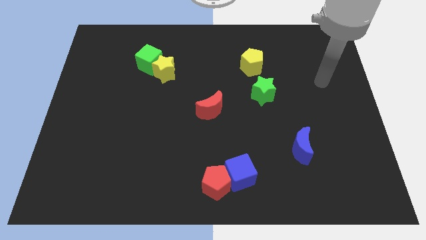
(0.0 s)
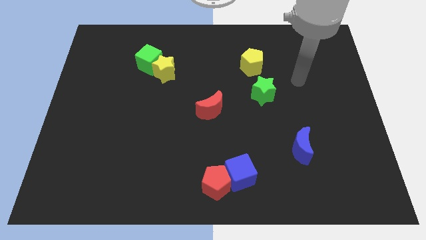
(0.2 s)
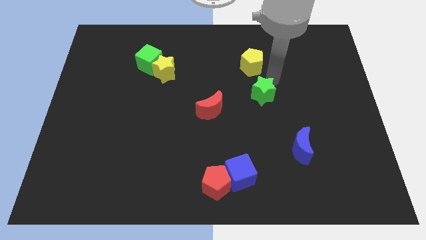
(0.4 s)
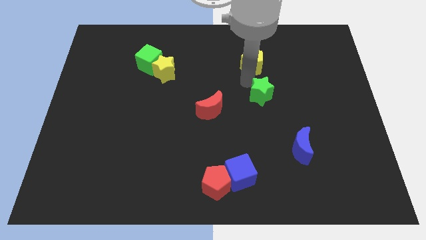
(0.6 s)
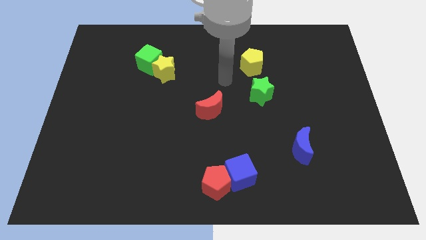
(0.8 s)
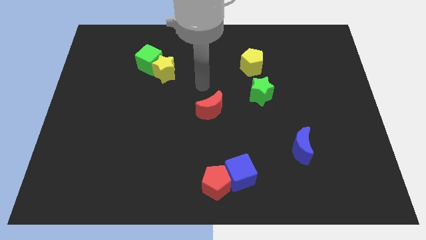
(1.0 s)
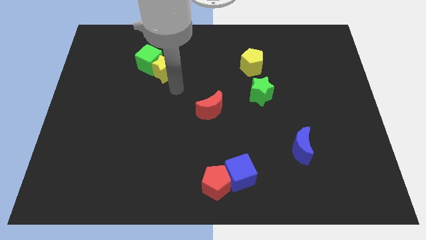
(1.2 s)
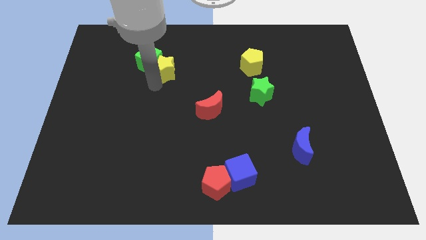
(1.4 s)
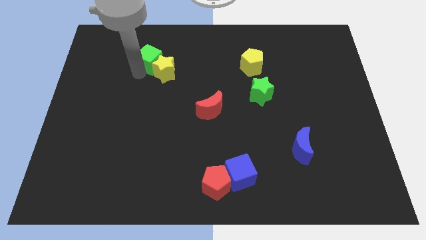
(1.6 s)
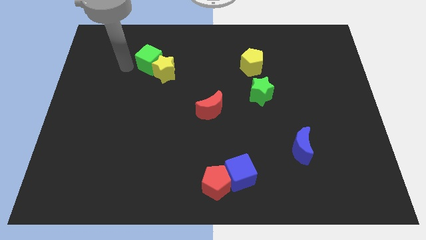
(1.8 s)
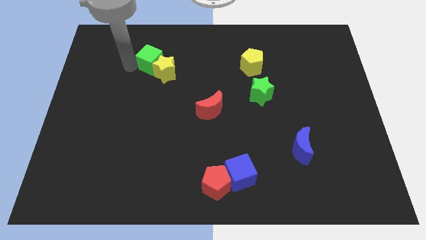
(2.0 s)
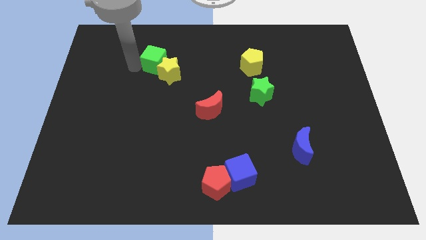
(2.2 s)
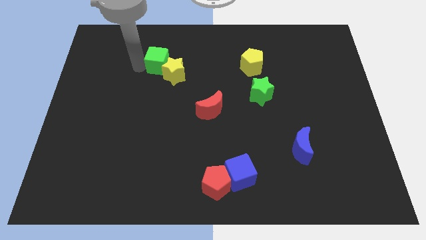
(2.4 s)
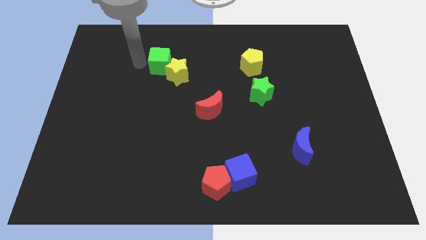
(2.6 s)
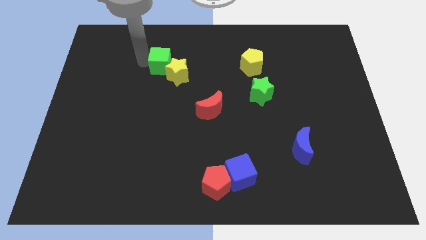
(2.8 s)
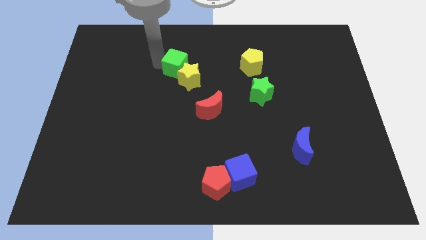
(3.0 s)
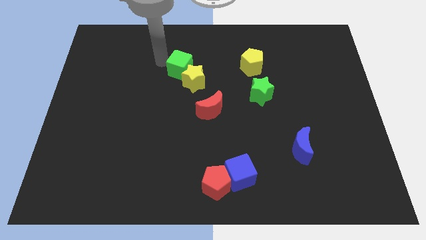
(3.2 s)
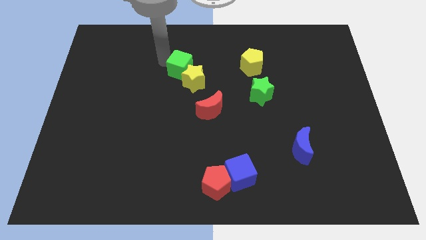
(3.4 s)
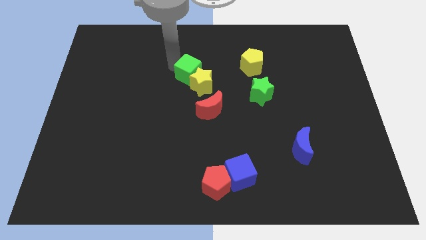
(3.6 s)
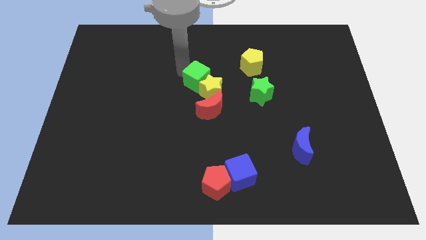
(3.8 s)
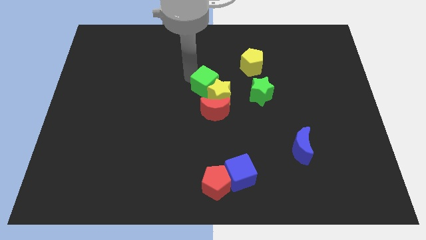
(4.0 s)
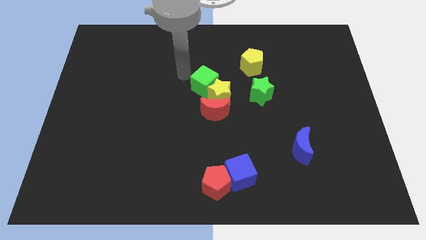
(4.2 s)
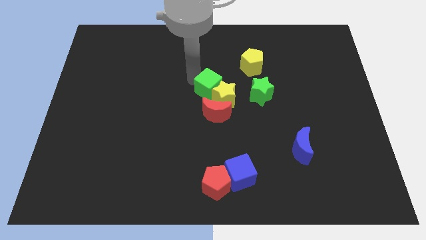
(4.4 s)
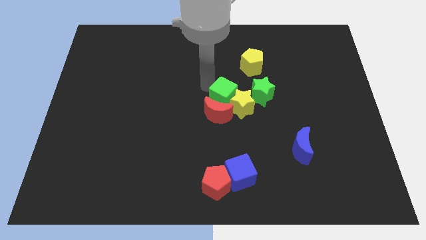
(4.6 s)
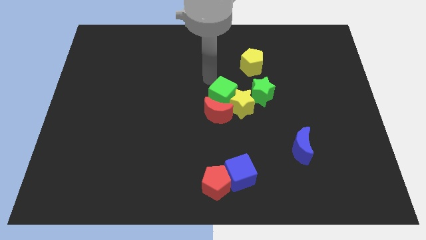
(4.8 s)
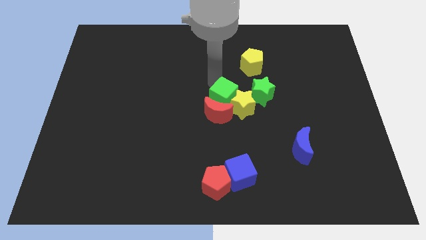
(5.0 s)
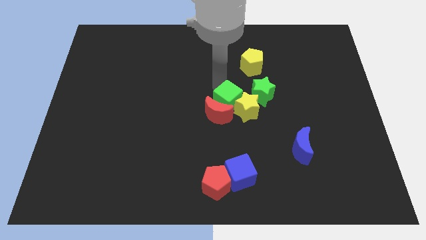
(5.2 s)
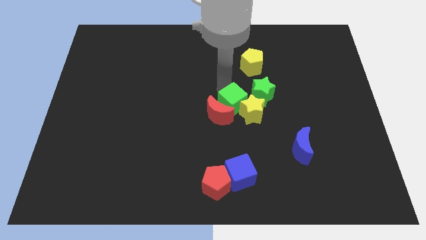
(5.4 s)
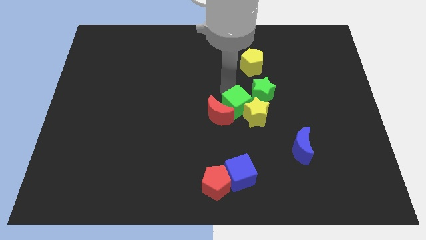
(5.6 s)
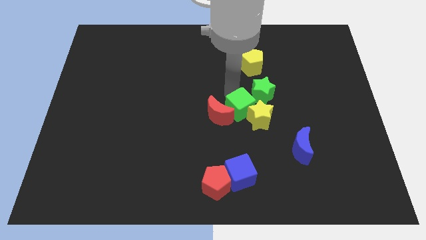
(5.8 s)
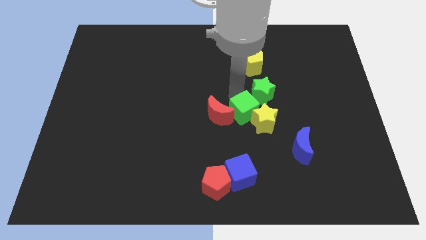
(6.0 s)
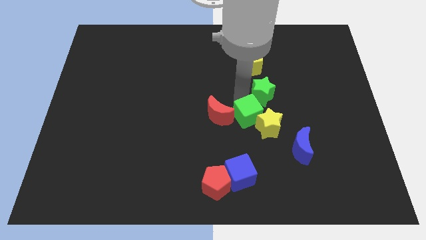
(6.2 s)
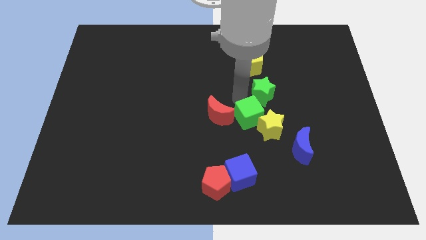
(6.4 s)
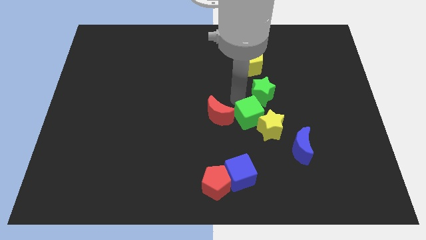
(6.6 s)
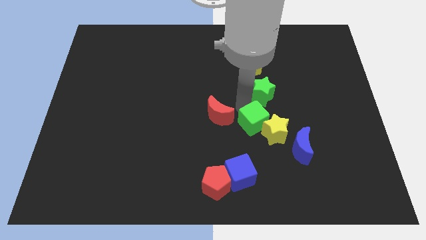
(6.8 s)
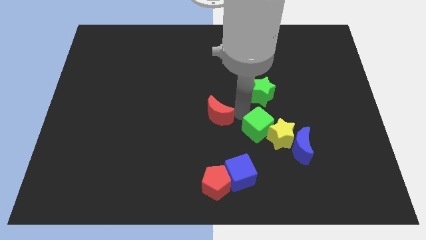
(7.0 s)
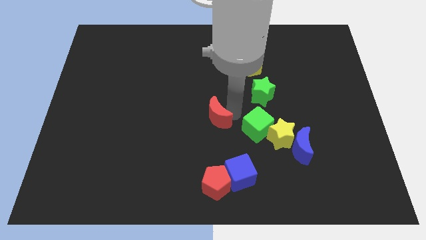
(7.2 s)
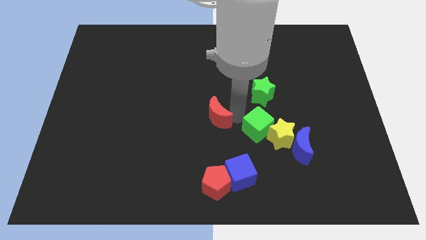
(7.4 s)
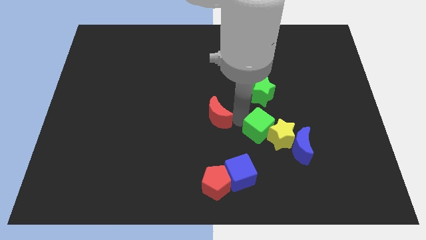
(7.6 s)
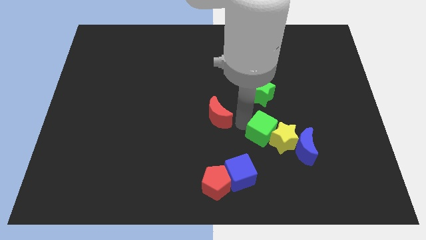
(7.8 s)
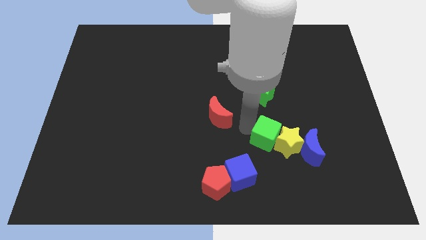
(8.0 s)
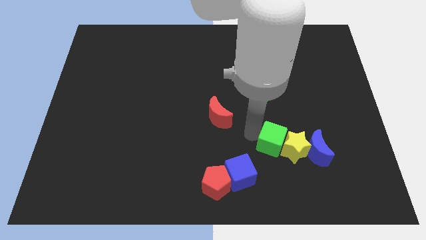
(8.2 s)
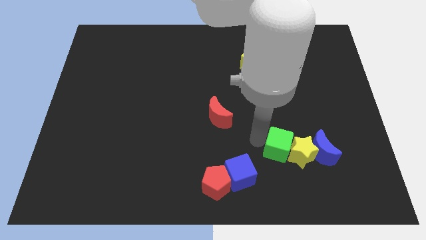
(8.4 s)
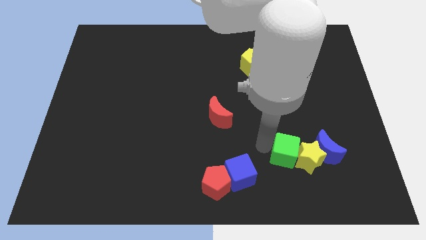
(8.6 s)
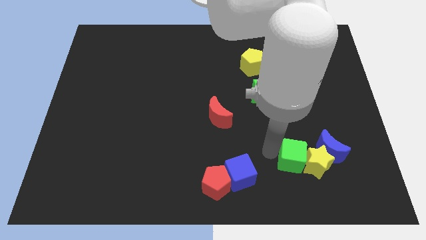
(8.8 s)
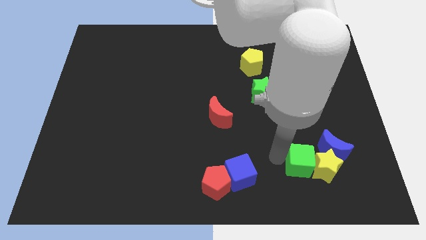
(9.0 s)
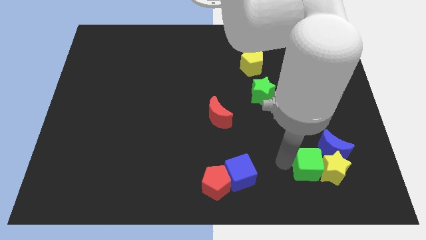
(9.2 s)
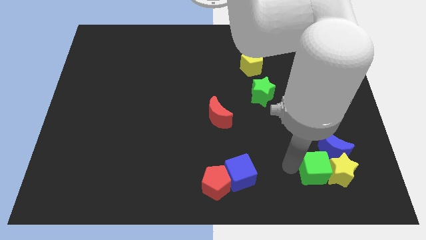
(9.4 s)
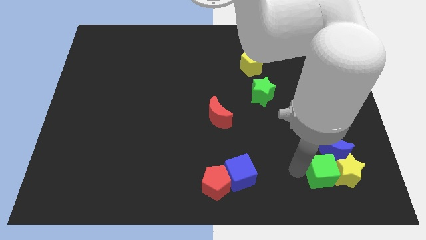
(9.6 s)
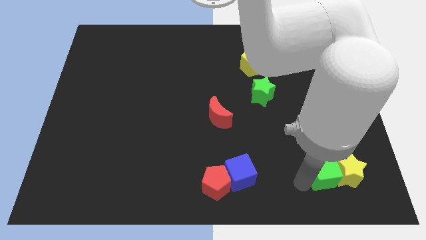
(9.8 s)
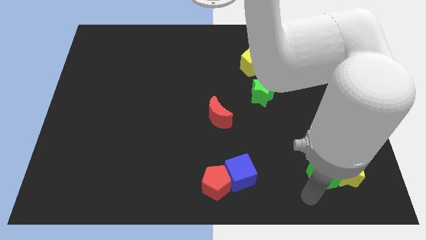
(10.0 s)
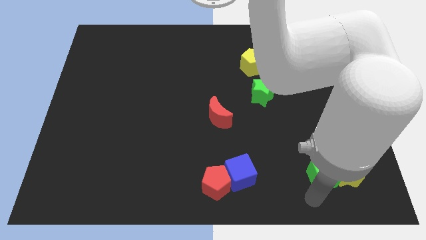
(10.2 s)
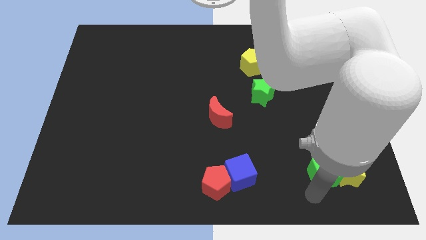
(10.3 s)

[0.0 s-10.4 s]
put the green cube towards the blue moon

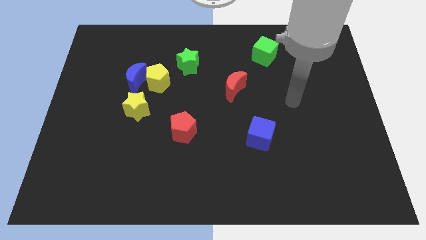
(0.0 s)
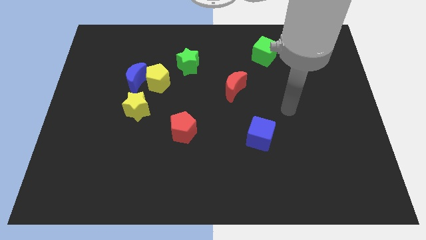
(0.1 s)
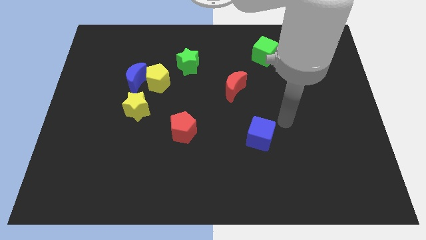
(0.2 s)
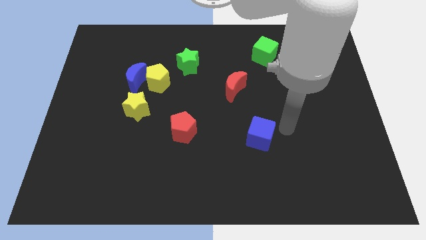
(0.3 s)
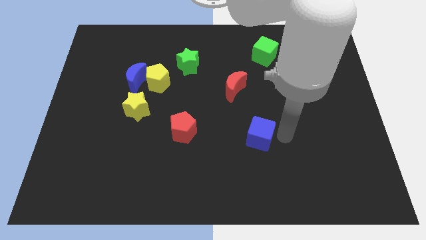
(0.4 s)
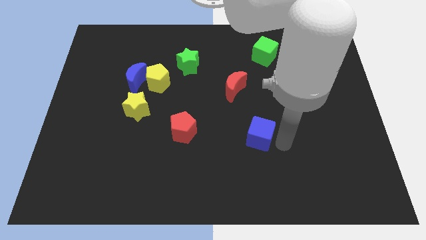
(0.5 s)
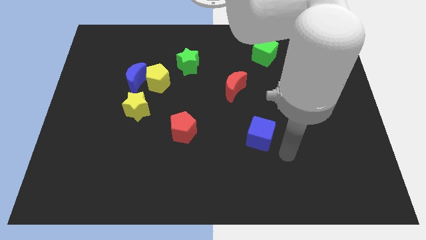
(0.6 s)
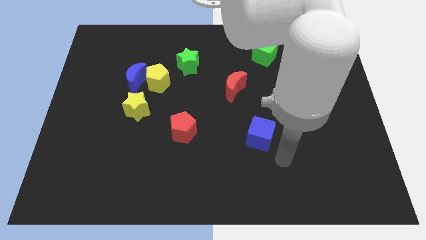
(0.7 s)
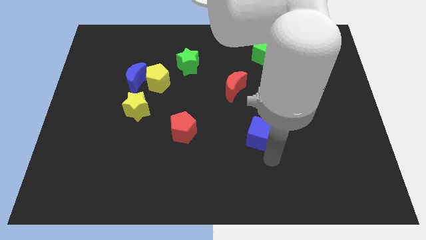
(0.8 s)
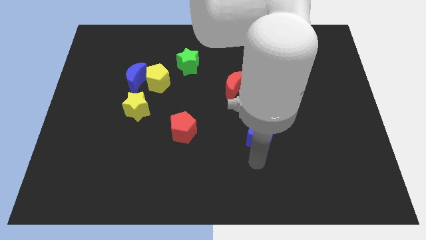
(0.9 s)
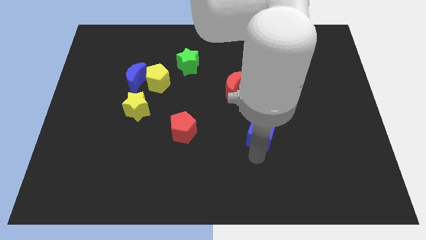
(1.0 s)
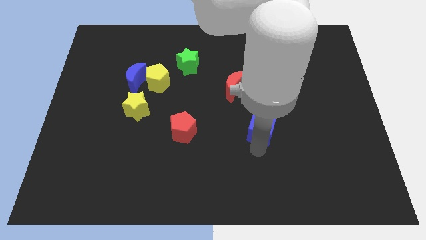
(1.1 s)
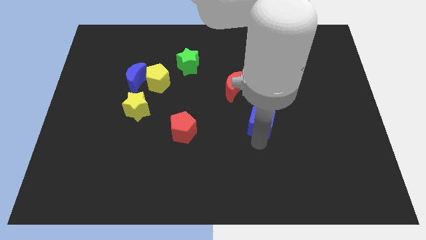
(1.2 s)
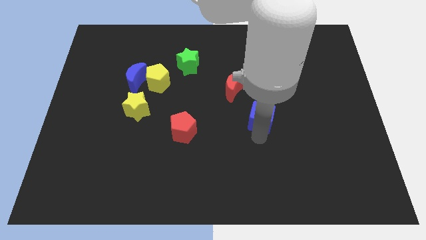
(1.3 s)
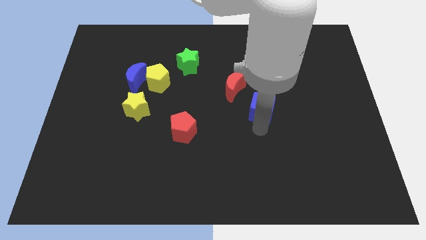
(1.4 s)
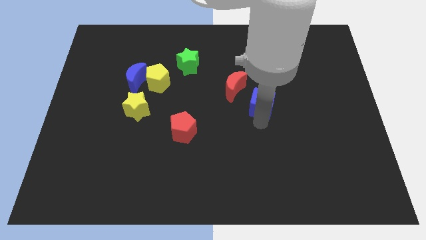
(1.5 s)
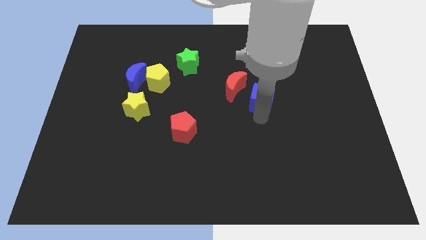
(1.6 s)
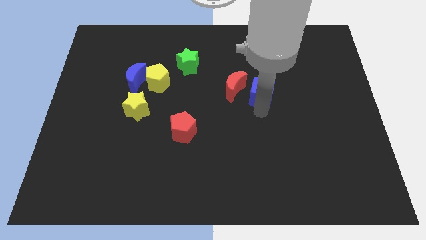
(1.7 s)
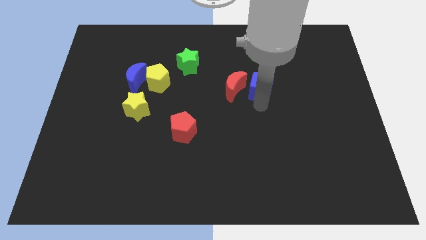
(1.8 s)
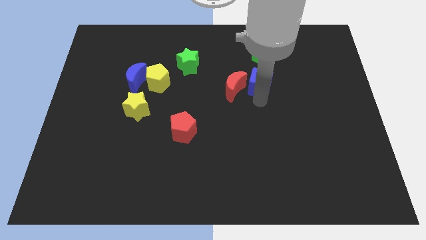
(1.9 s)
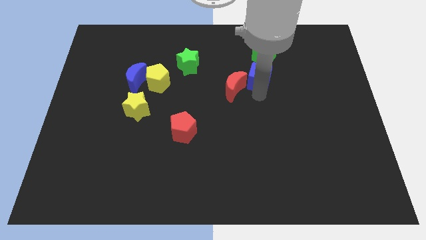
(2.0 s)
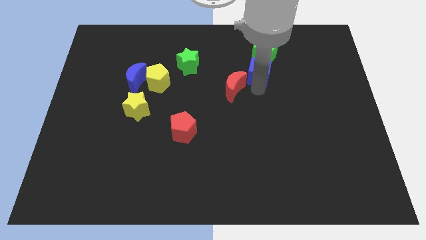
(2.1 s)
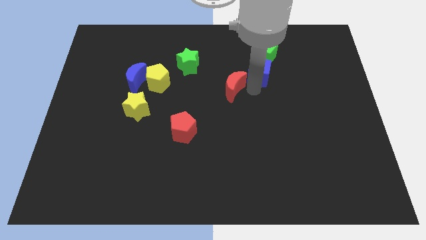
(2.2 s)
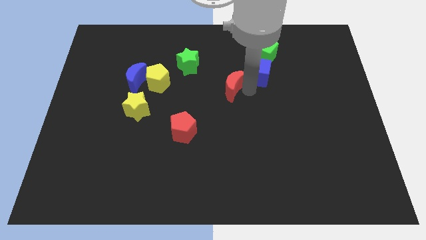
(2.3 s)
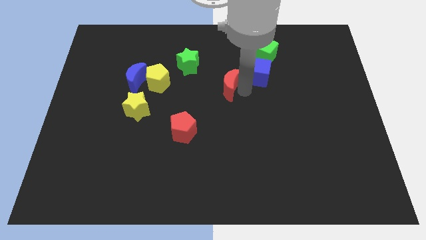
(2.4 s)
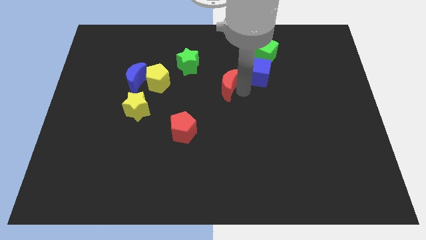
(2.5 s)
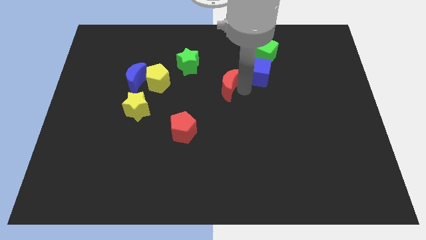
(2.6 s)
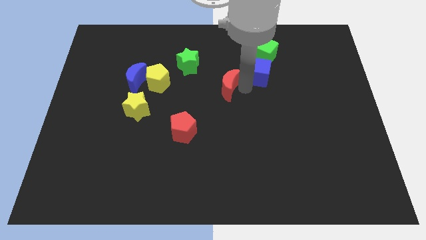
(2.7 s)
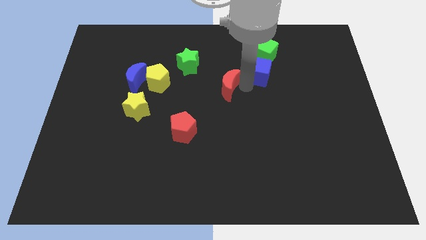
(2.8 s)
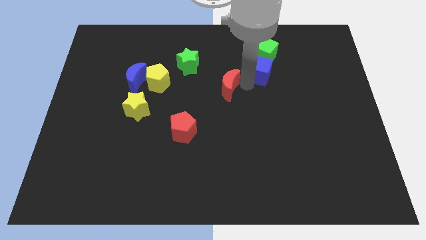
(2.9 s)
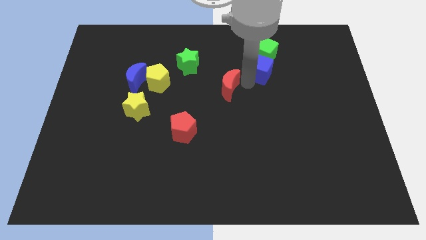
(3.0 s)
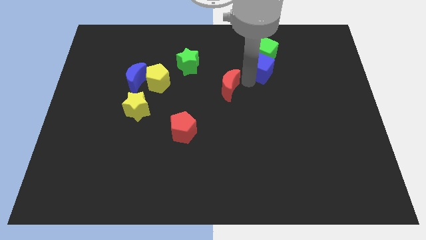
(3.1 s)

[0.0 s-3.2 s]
slide the blue cube towards the green cube
